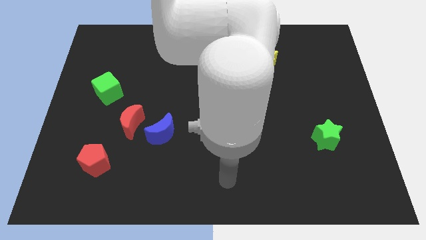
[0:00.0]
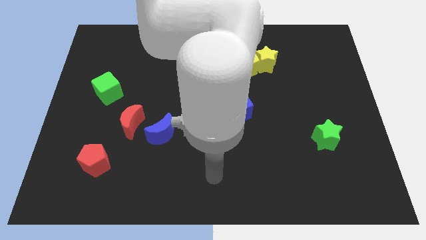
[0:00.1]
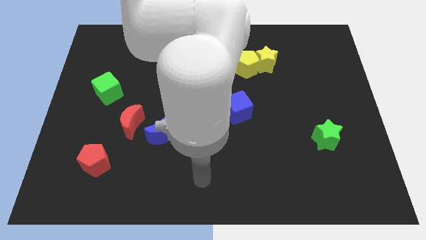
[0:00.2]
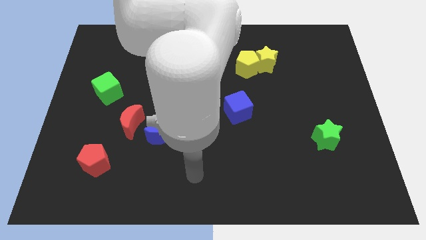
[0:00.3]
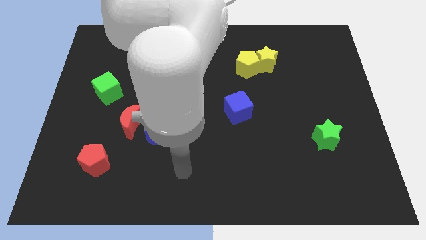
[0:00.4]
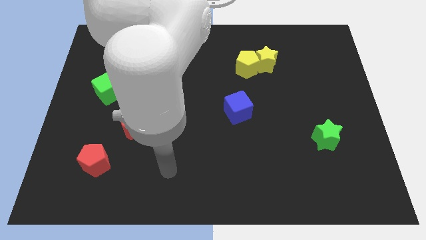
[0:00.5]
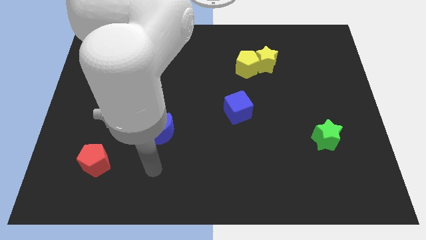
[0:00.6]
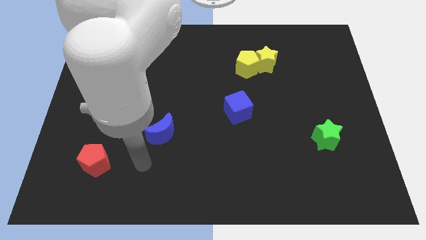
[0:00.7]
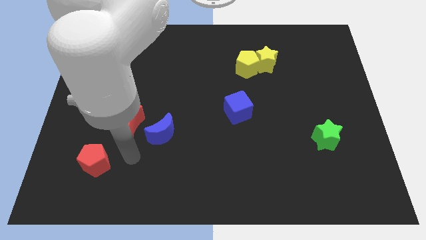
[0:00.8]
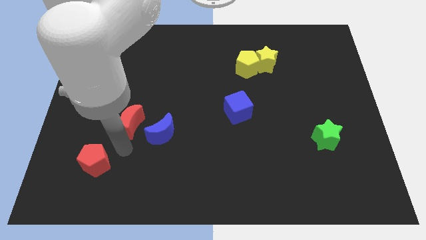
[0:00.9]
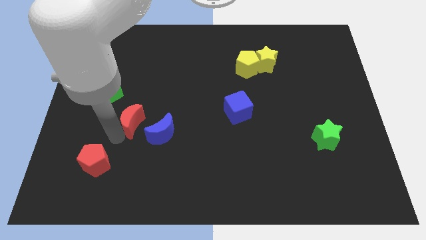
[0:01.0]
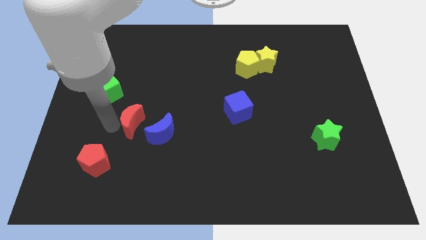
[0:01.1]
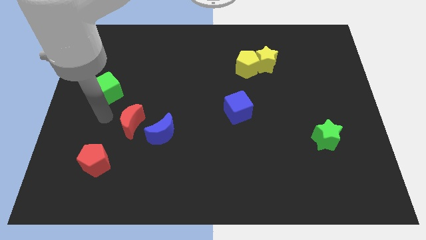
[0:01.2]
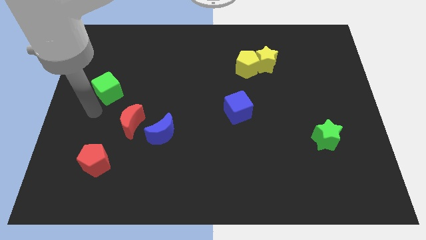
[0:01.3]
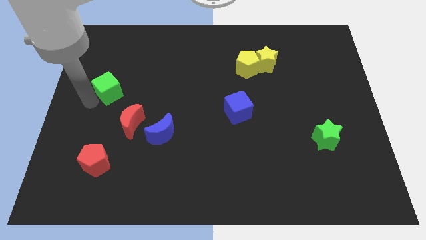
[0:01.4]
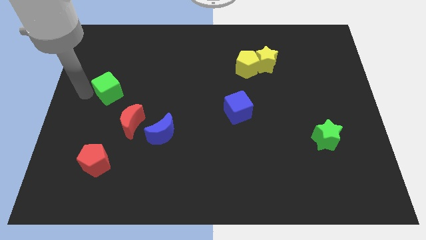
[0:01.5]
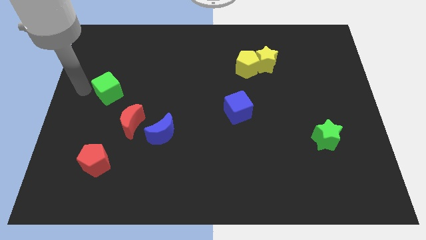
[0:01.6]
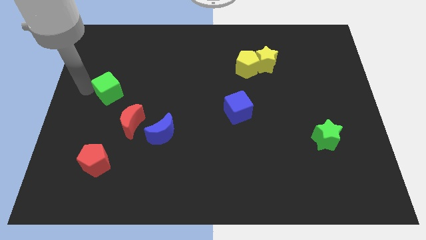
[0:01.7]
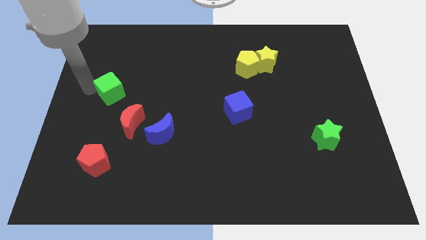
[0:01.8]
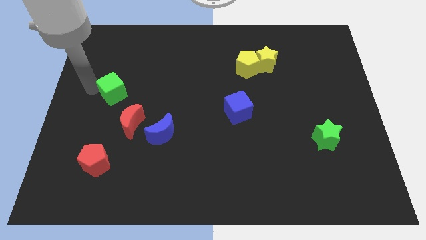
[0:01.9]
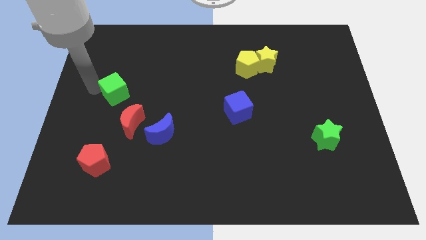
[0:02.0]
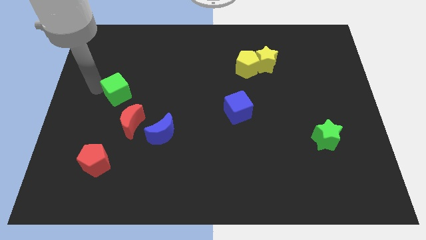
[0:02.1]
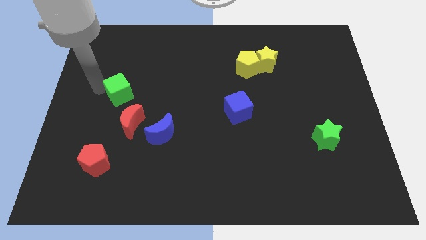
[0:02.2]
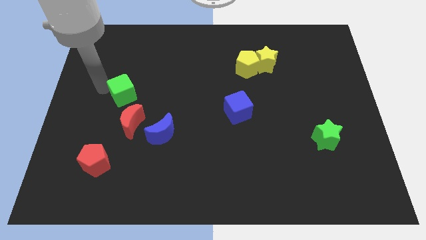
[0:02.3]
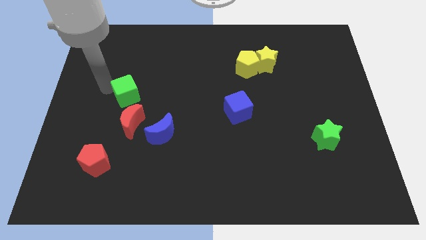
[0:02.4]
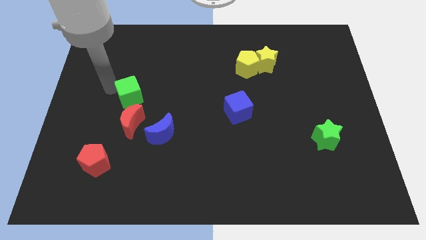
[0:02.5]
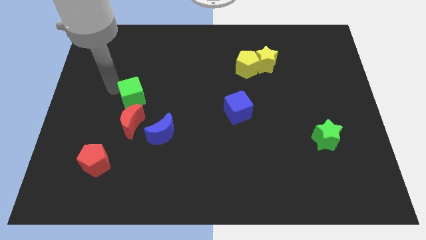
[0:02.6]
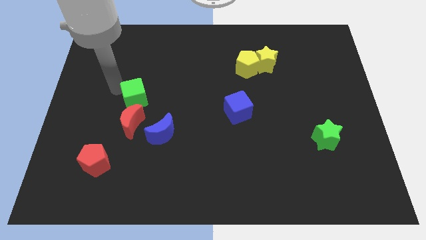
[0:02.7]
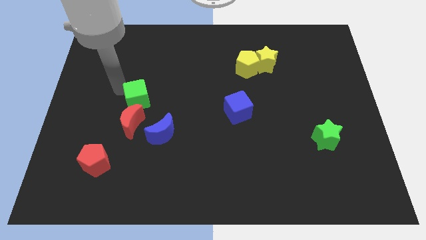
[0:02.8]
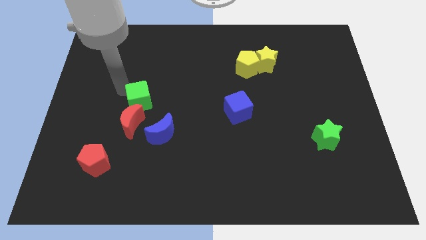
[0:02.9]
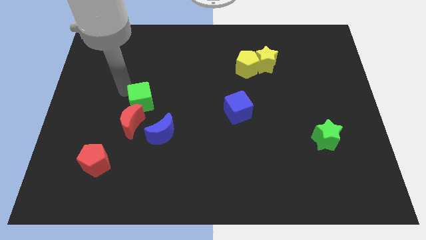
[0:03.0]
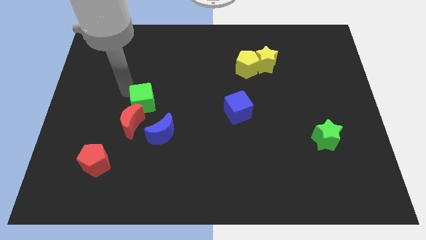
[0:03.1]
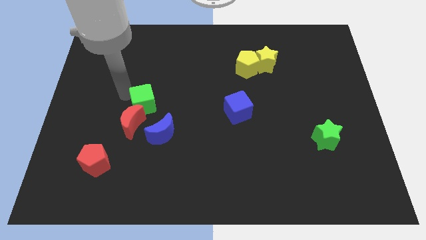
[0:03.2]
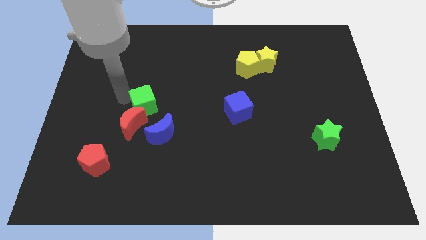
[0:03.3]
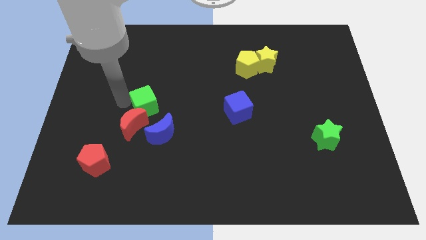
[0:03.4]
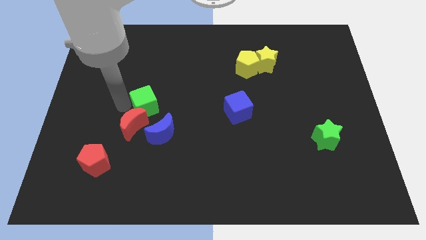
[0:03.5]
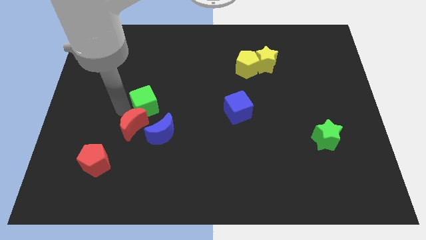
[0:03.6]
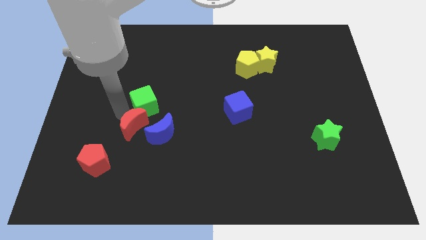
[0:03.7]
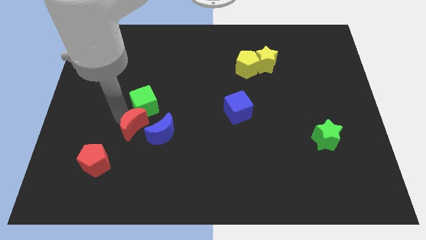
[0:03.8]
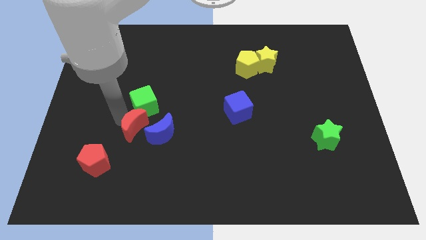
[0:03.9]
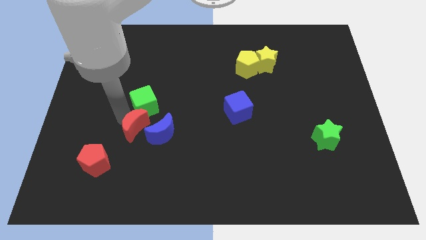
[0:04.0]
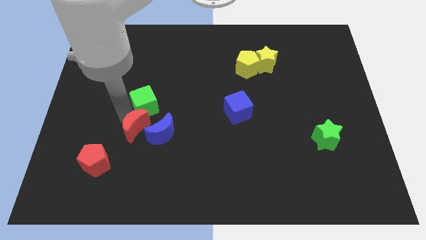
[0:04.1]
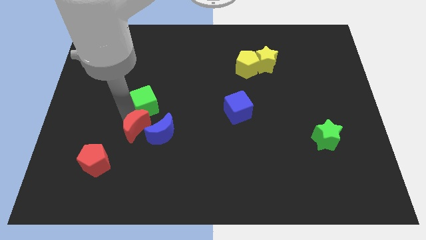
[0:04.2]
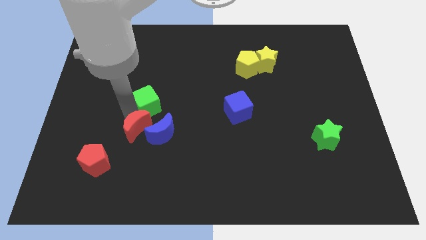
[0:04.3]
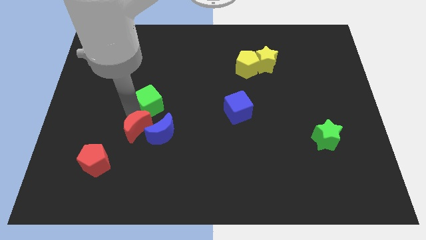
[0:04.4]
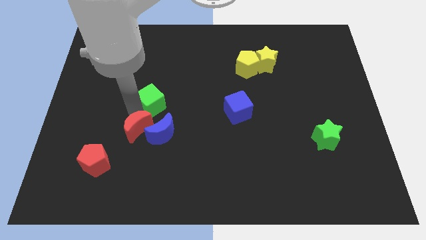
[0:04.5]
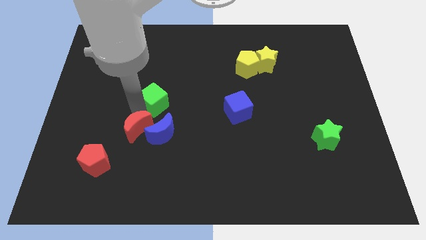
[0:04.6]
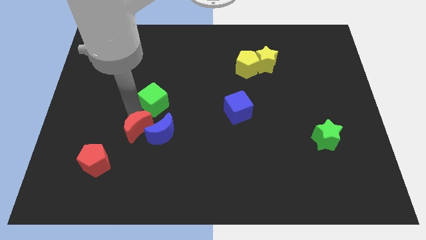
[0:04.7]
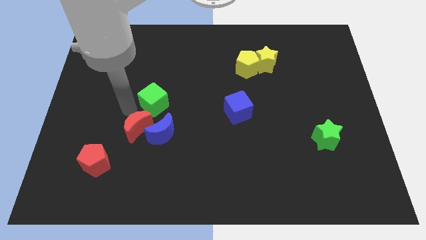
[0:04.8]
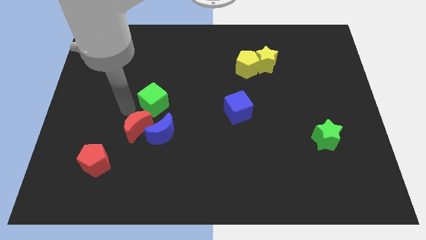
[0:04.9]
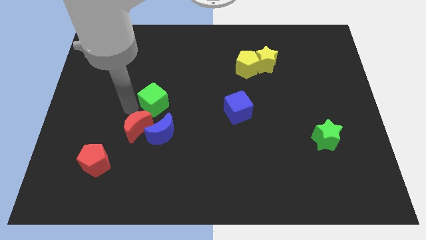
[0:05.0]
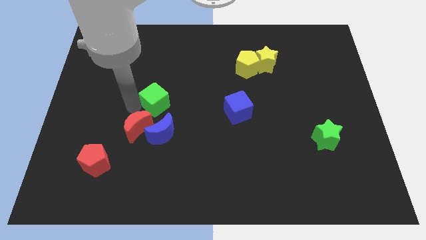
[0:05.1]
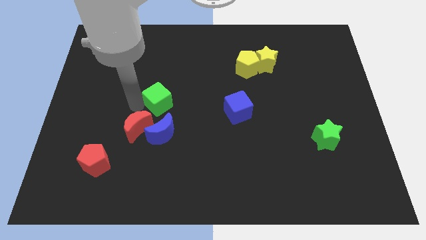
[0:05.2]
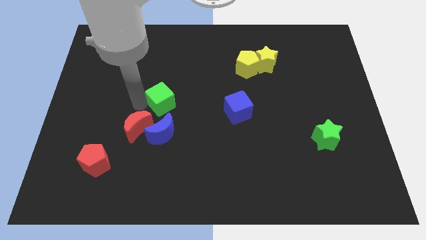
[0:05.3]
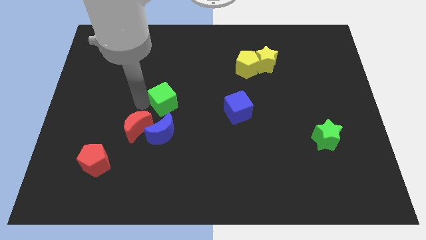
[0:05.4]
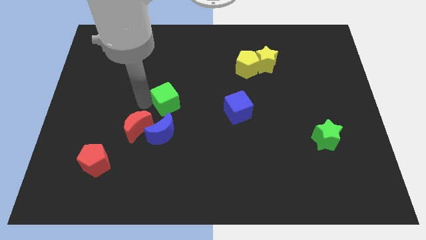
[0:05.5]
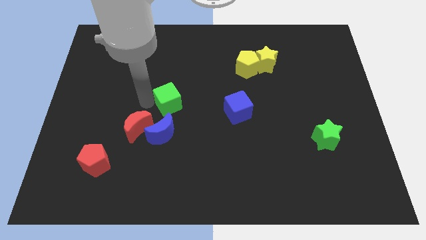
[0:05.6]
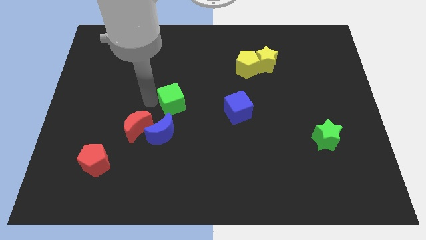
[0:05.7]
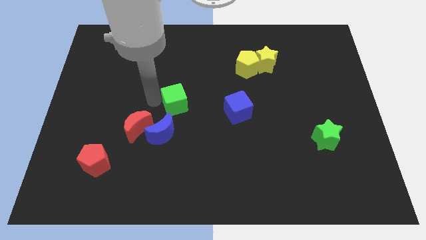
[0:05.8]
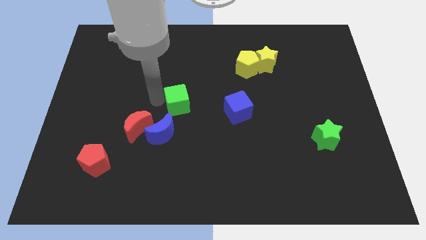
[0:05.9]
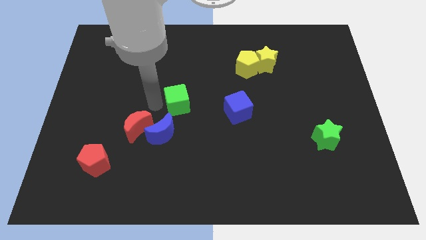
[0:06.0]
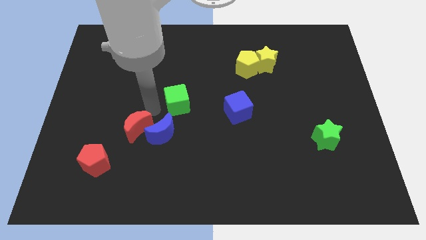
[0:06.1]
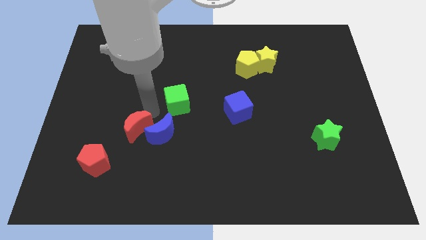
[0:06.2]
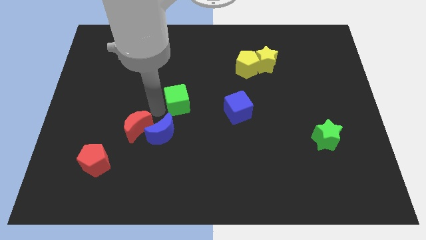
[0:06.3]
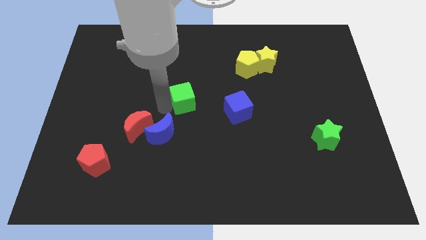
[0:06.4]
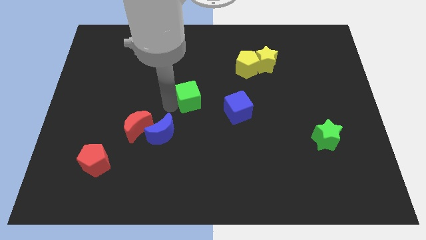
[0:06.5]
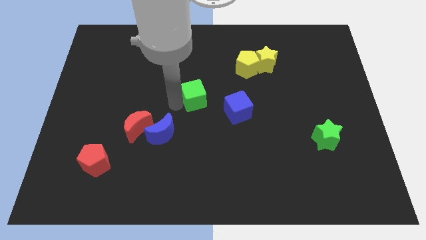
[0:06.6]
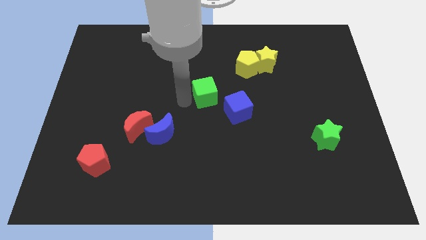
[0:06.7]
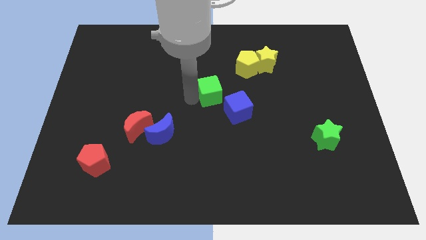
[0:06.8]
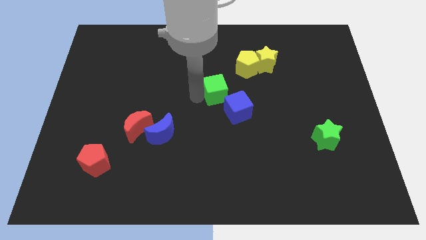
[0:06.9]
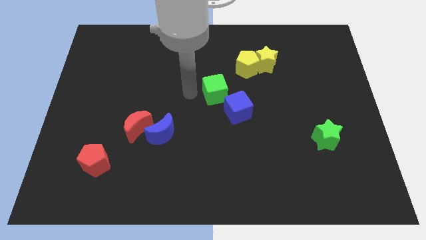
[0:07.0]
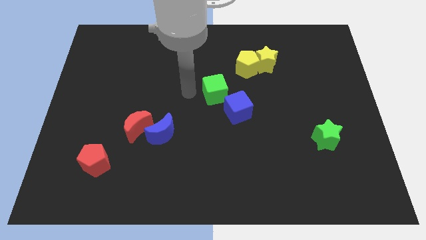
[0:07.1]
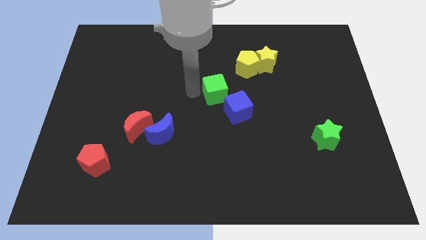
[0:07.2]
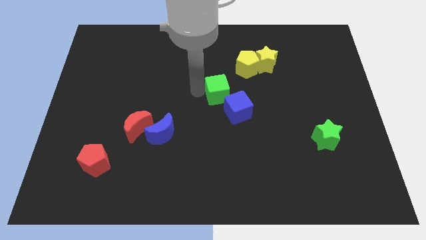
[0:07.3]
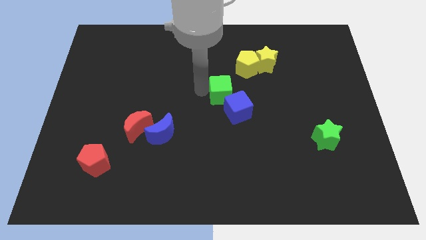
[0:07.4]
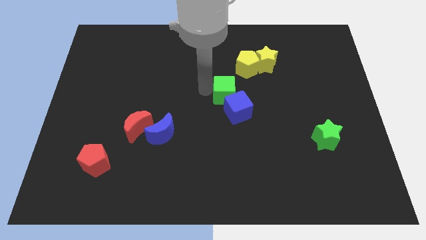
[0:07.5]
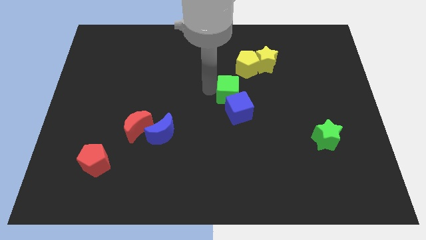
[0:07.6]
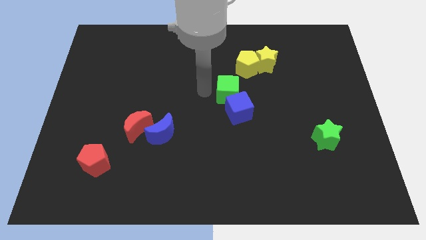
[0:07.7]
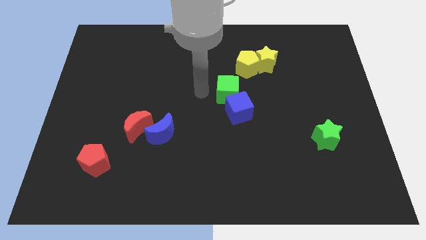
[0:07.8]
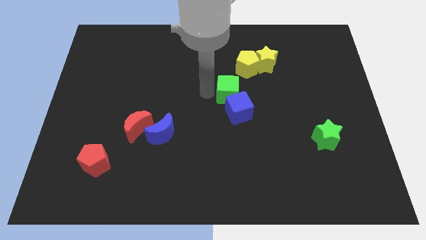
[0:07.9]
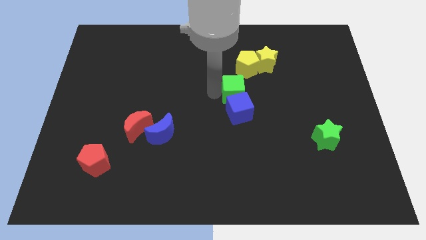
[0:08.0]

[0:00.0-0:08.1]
slide the green cube to the top right of the blue cube
